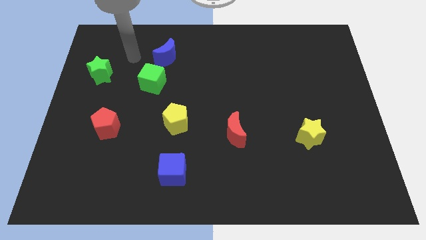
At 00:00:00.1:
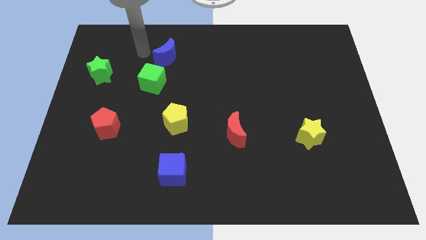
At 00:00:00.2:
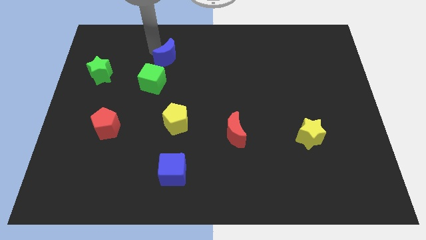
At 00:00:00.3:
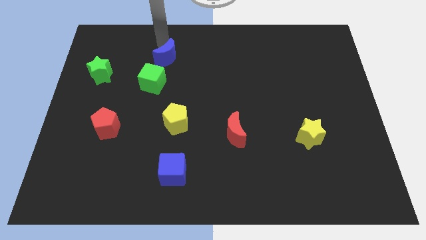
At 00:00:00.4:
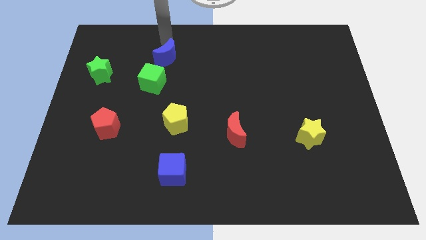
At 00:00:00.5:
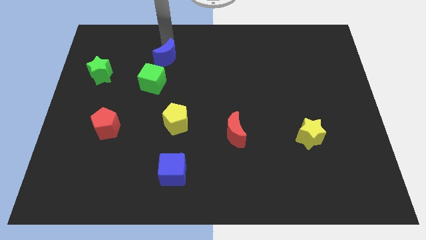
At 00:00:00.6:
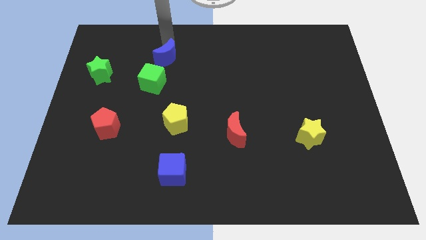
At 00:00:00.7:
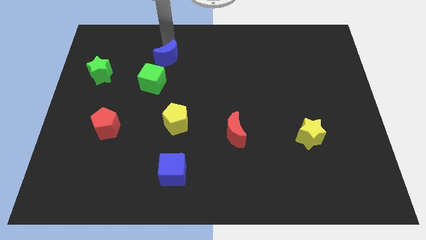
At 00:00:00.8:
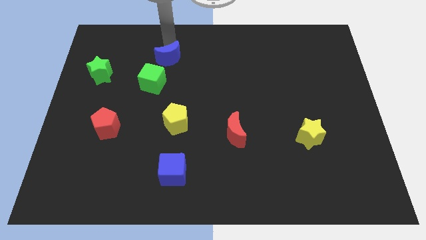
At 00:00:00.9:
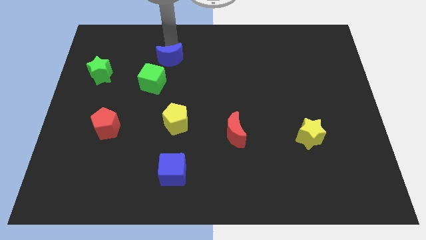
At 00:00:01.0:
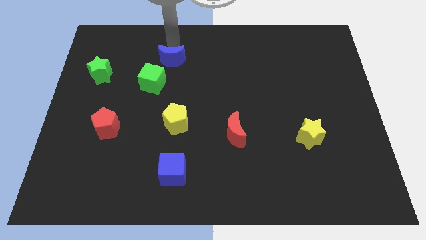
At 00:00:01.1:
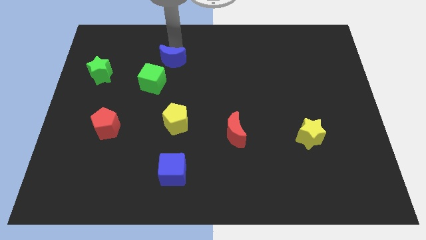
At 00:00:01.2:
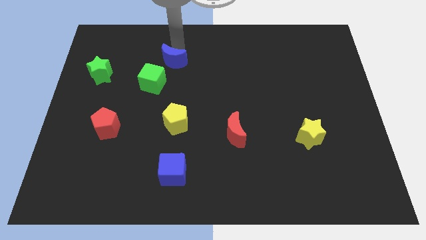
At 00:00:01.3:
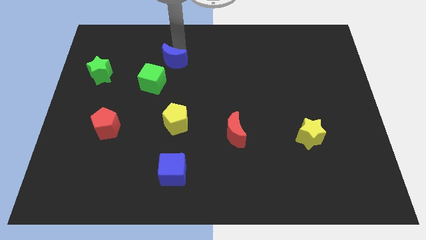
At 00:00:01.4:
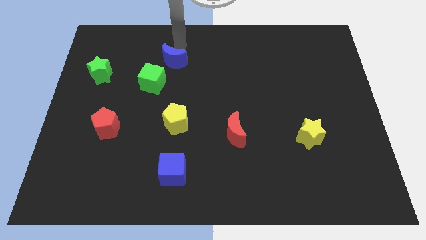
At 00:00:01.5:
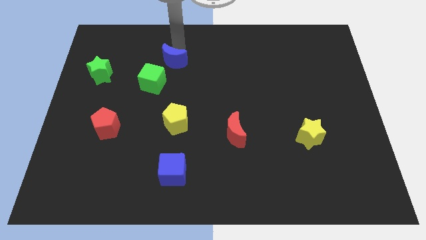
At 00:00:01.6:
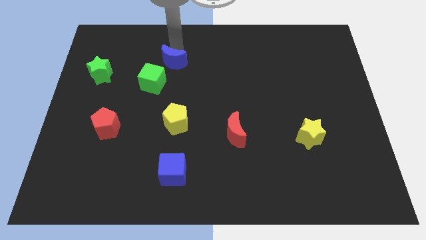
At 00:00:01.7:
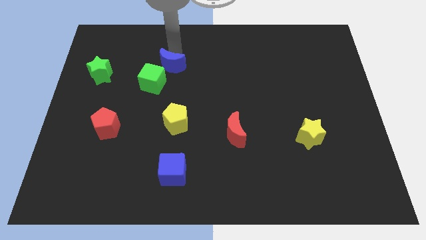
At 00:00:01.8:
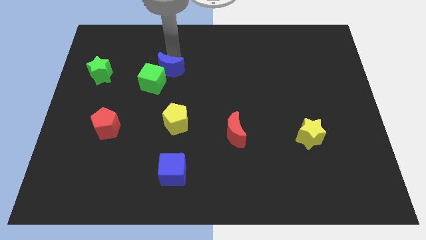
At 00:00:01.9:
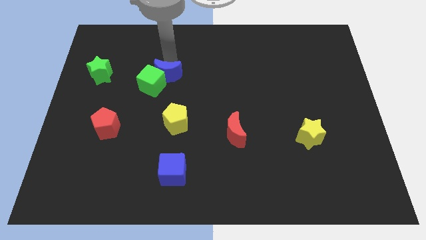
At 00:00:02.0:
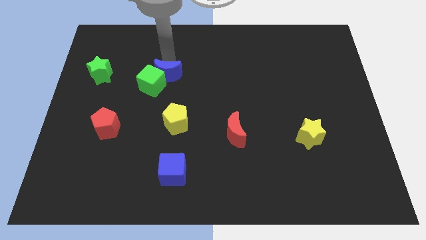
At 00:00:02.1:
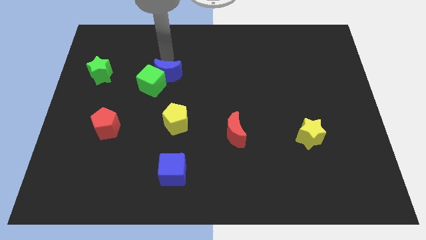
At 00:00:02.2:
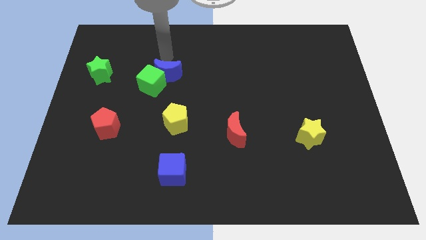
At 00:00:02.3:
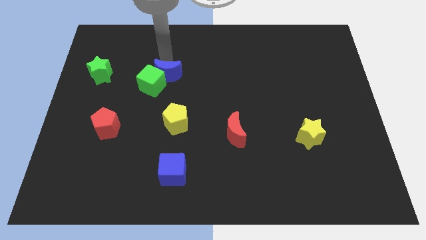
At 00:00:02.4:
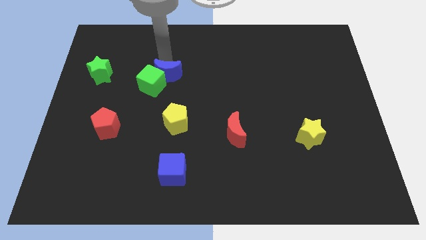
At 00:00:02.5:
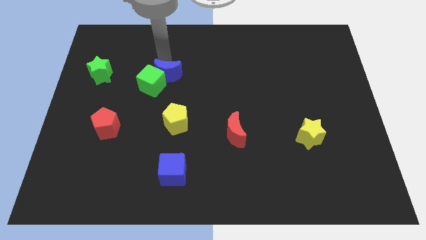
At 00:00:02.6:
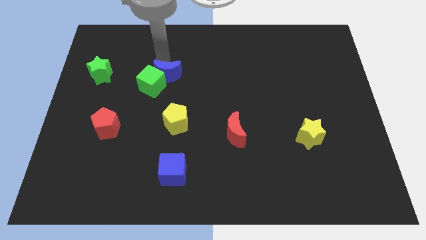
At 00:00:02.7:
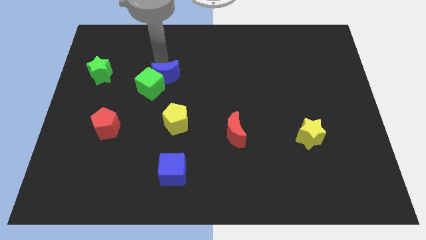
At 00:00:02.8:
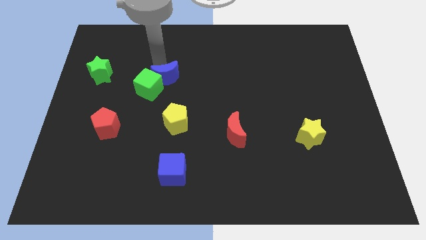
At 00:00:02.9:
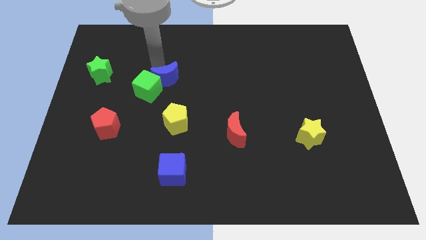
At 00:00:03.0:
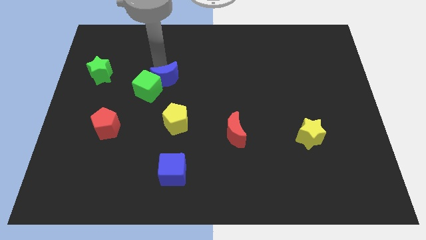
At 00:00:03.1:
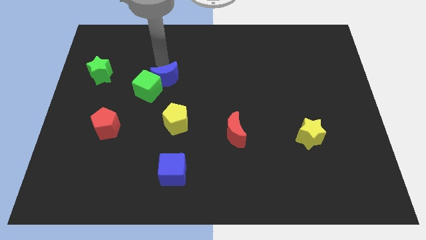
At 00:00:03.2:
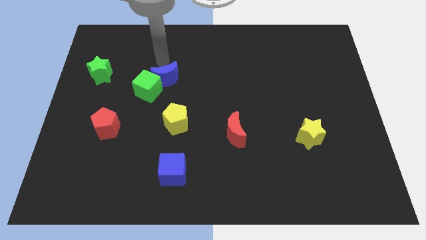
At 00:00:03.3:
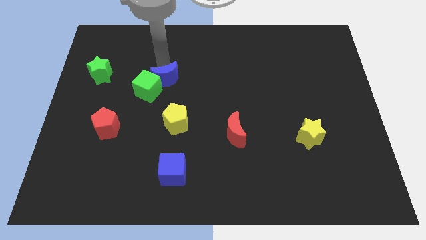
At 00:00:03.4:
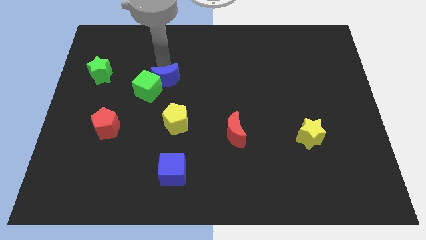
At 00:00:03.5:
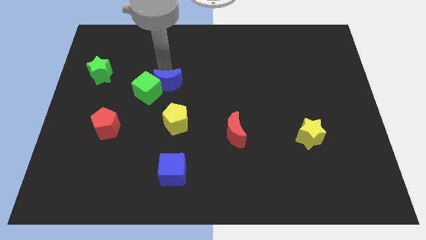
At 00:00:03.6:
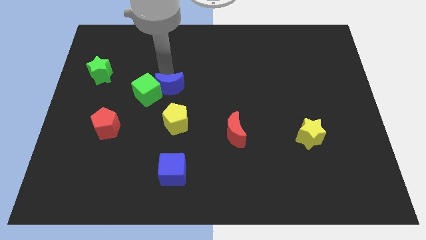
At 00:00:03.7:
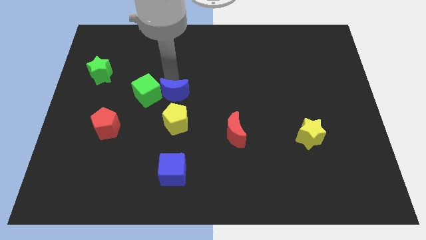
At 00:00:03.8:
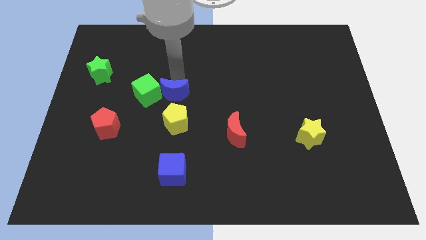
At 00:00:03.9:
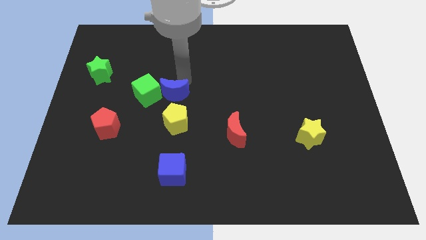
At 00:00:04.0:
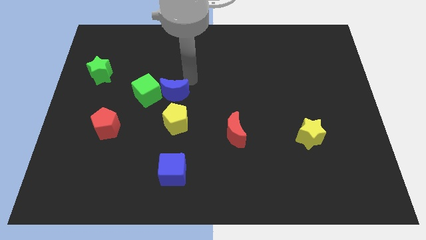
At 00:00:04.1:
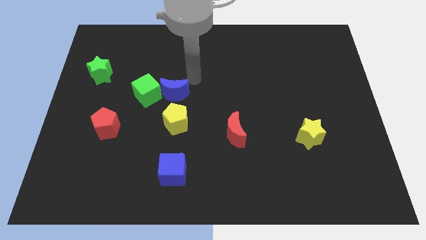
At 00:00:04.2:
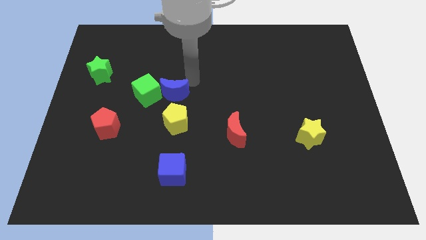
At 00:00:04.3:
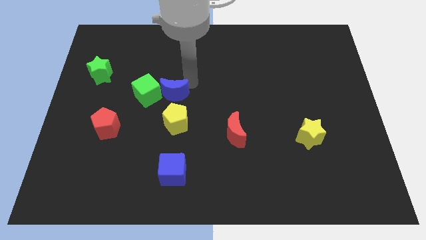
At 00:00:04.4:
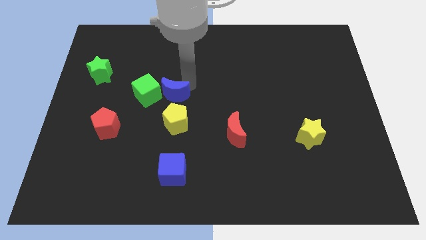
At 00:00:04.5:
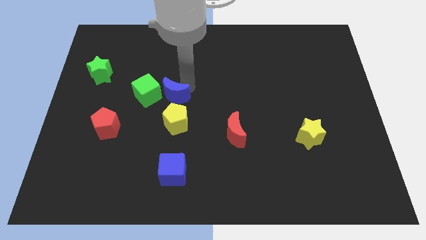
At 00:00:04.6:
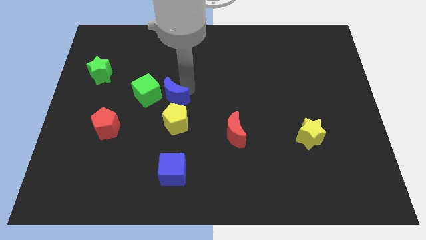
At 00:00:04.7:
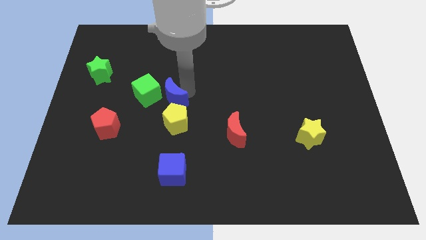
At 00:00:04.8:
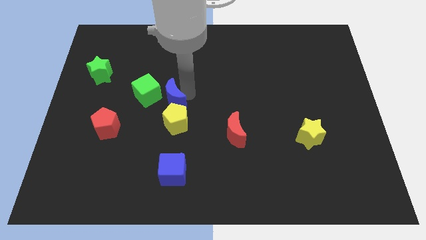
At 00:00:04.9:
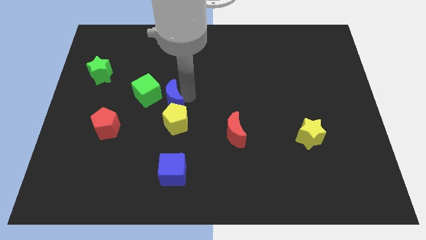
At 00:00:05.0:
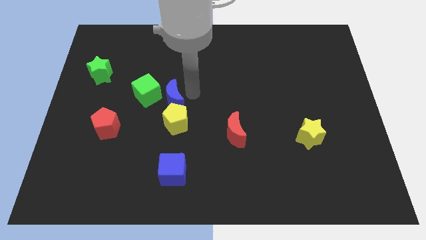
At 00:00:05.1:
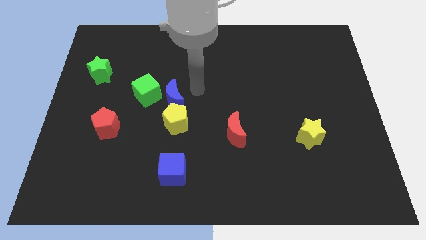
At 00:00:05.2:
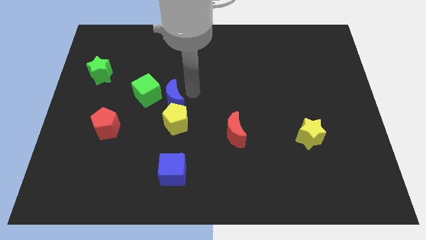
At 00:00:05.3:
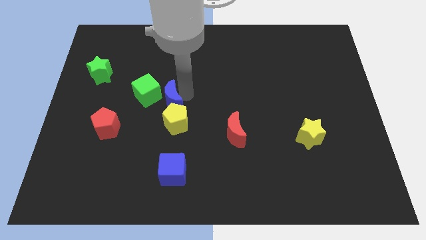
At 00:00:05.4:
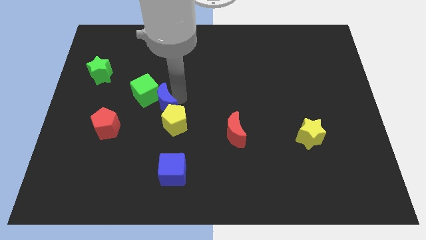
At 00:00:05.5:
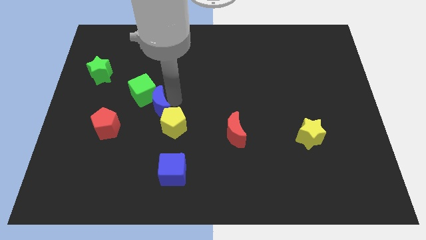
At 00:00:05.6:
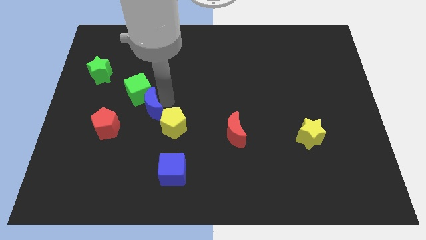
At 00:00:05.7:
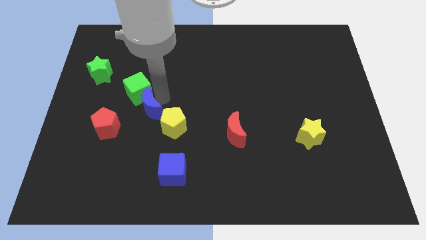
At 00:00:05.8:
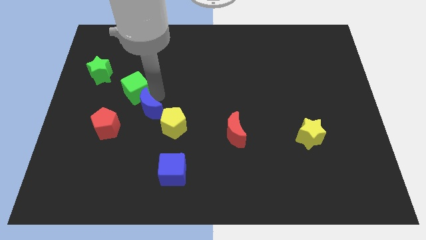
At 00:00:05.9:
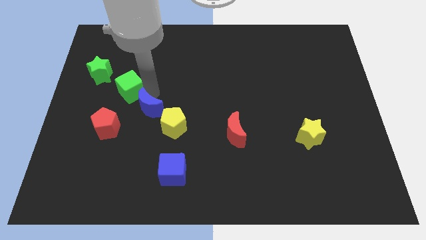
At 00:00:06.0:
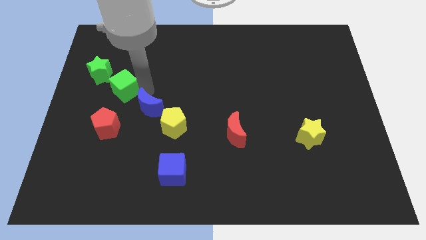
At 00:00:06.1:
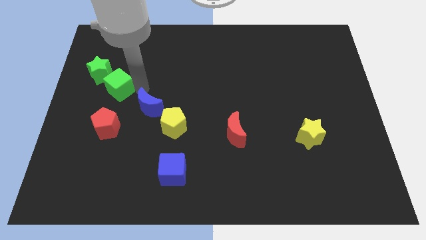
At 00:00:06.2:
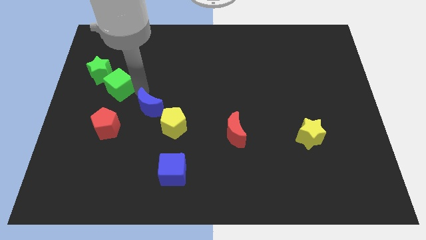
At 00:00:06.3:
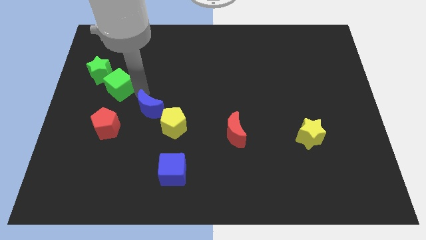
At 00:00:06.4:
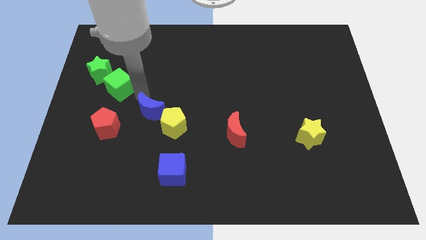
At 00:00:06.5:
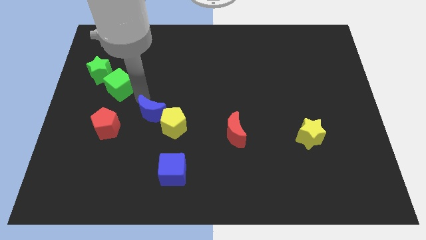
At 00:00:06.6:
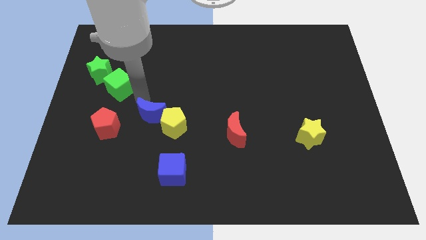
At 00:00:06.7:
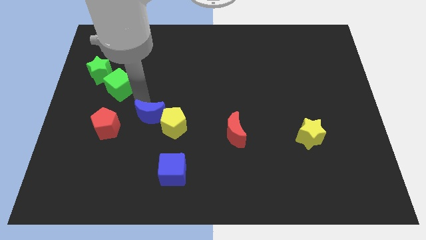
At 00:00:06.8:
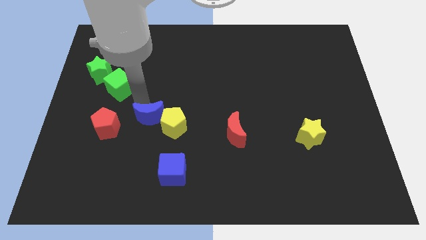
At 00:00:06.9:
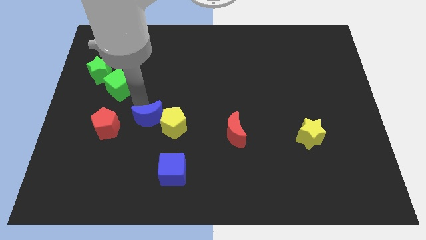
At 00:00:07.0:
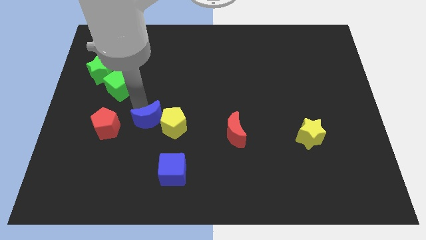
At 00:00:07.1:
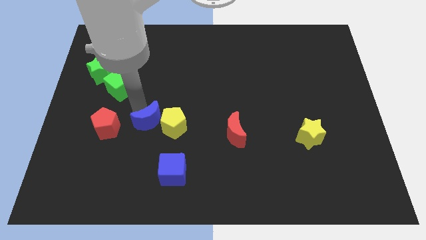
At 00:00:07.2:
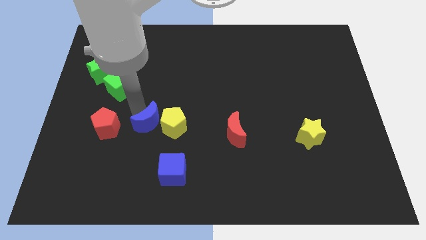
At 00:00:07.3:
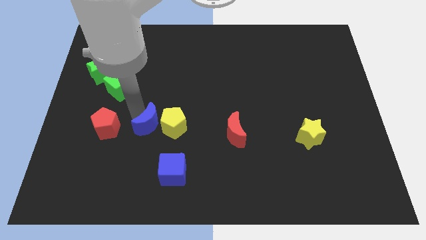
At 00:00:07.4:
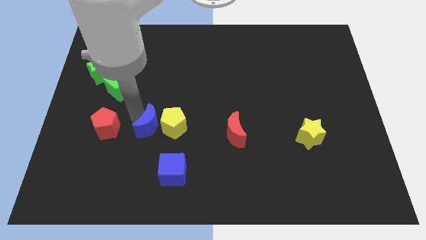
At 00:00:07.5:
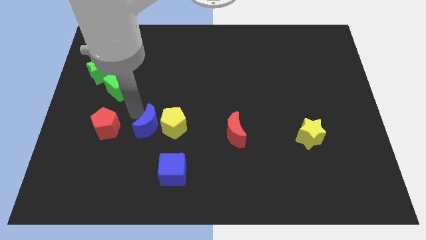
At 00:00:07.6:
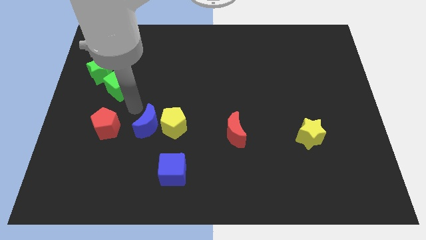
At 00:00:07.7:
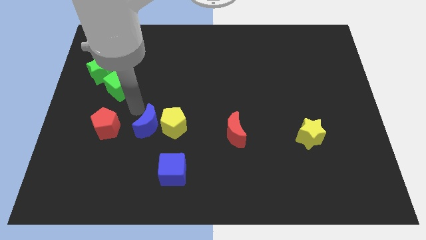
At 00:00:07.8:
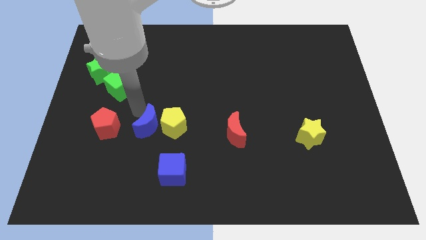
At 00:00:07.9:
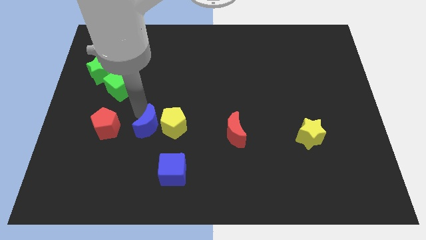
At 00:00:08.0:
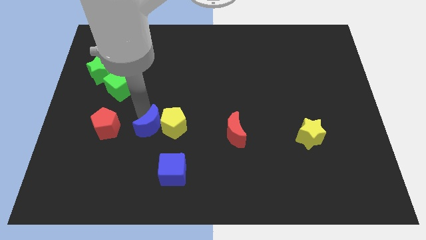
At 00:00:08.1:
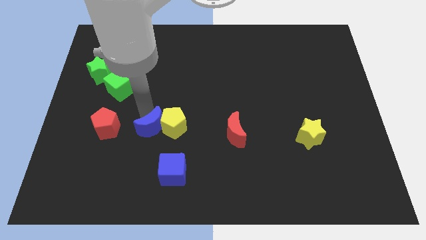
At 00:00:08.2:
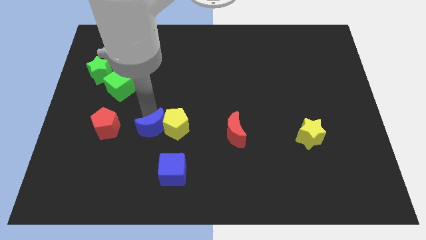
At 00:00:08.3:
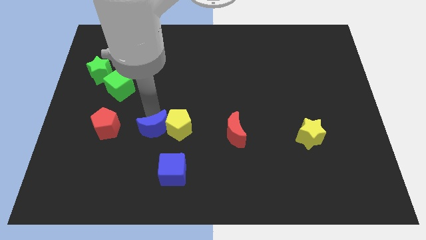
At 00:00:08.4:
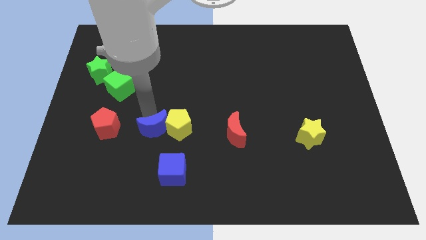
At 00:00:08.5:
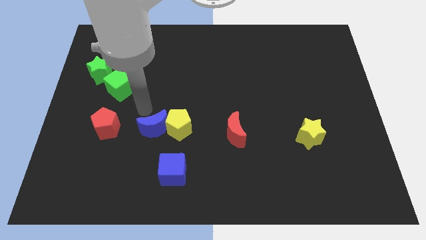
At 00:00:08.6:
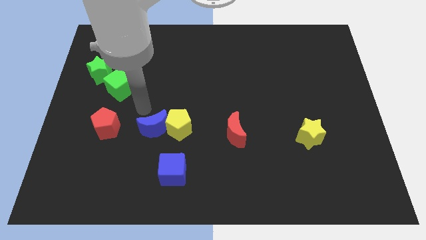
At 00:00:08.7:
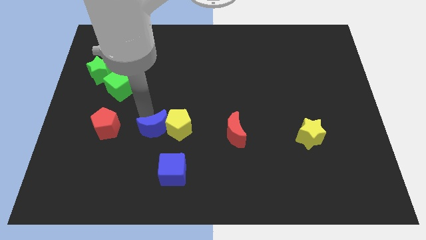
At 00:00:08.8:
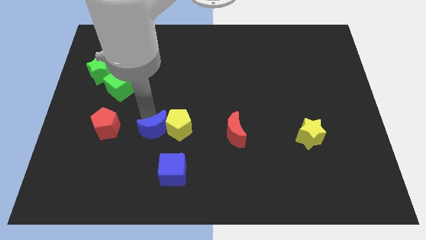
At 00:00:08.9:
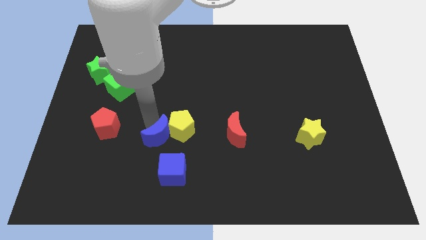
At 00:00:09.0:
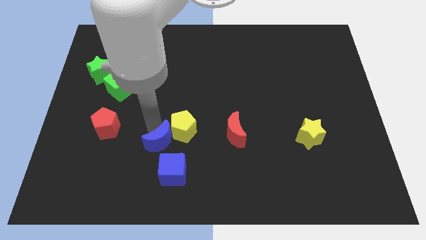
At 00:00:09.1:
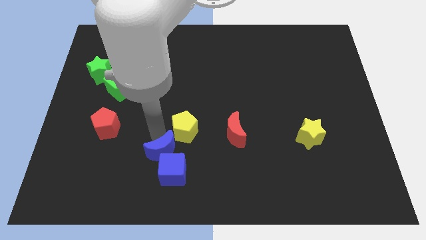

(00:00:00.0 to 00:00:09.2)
put the blue moon close to the blue cube
